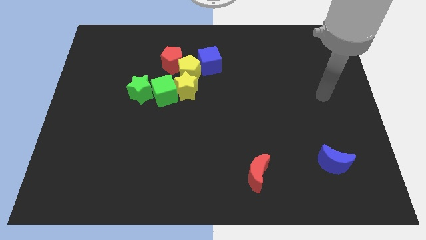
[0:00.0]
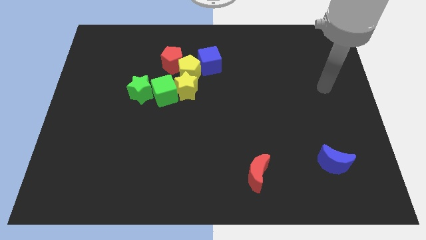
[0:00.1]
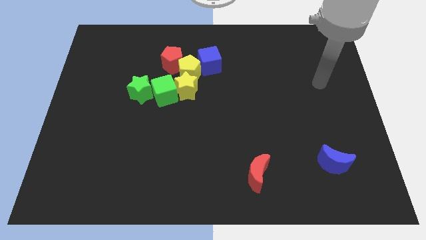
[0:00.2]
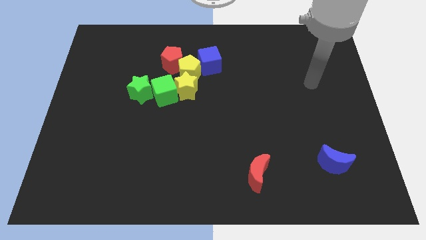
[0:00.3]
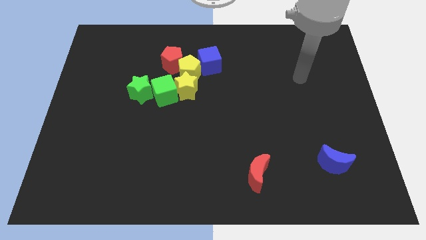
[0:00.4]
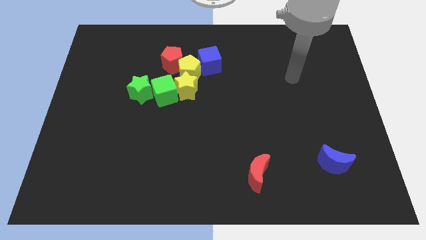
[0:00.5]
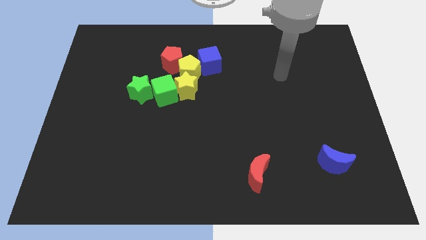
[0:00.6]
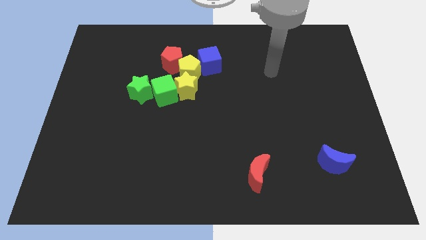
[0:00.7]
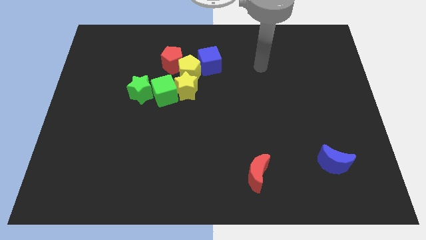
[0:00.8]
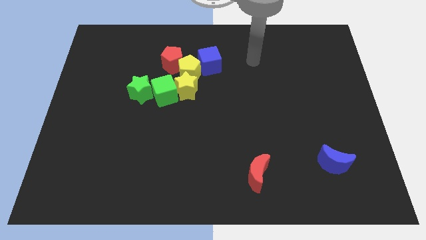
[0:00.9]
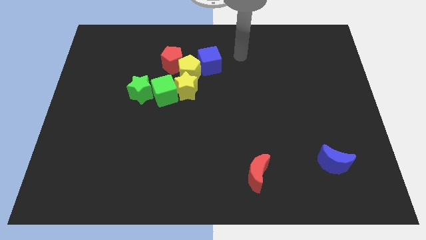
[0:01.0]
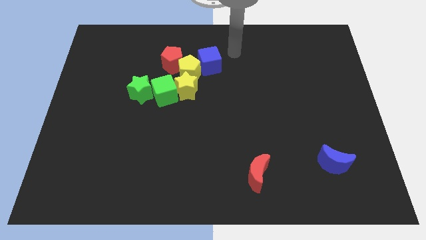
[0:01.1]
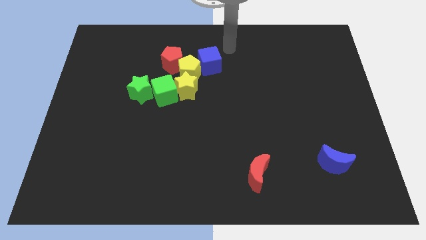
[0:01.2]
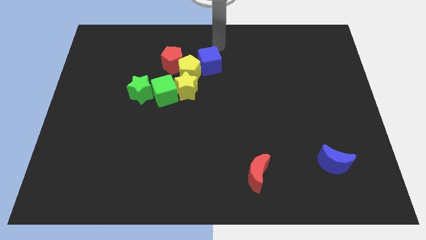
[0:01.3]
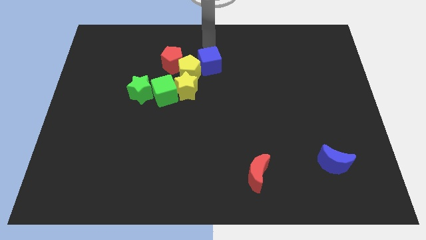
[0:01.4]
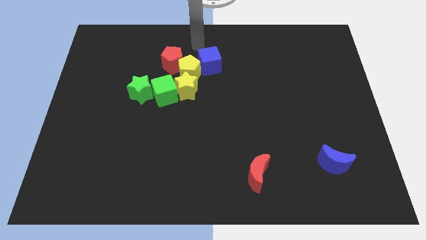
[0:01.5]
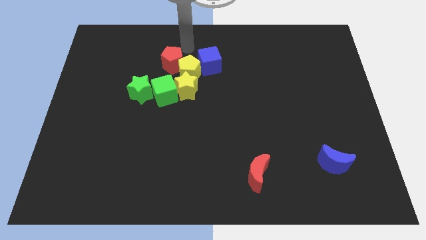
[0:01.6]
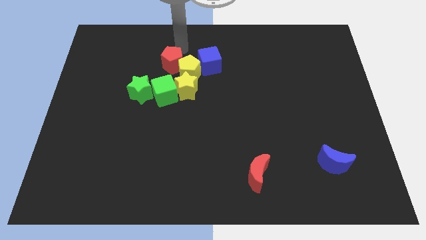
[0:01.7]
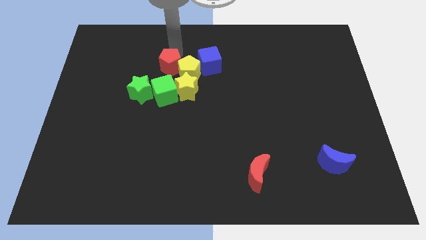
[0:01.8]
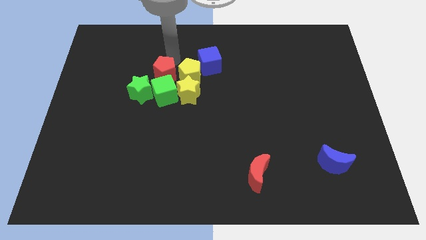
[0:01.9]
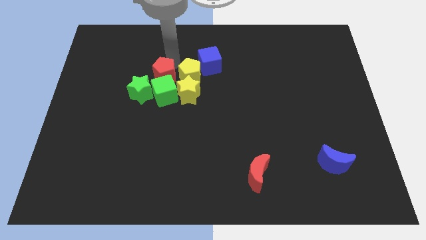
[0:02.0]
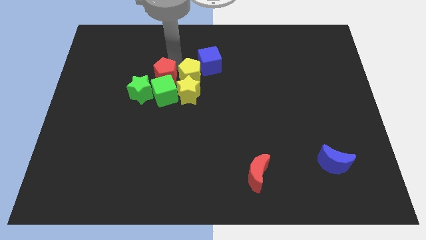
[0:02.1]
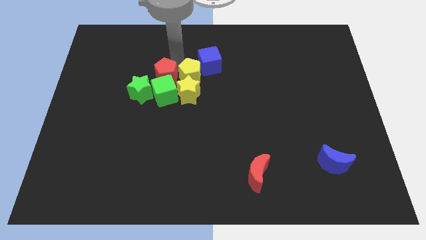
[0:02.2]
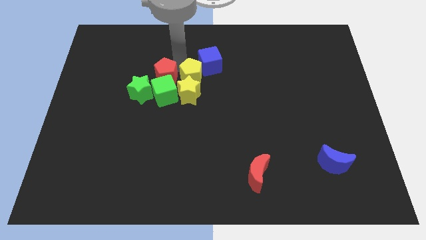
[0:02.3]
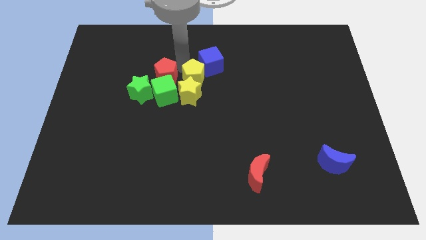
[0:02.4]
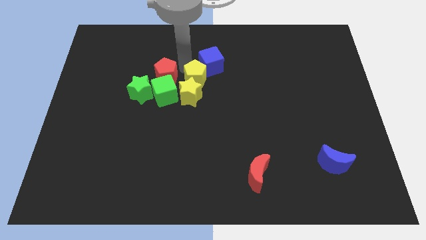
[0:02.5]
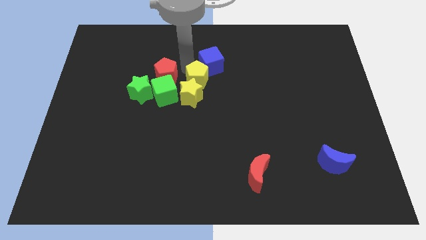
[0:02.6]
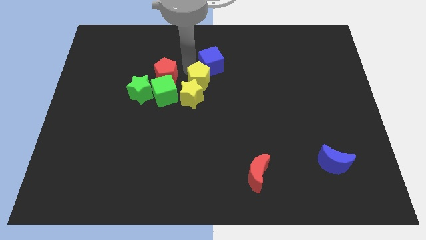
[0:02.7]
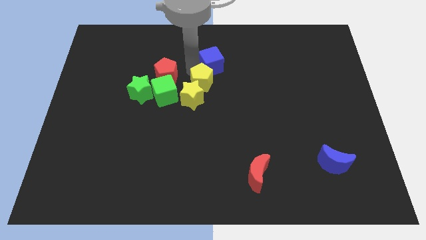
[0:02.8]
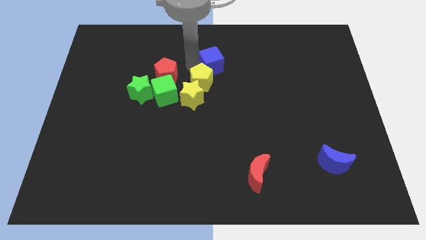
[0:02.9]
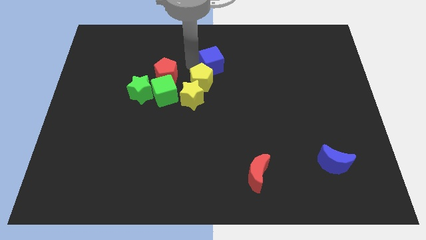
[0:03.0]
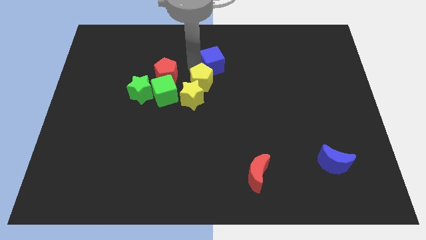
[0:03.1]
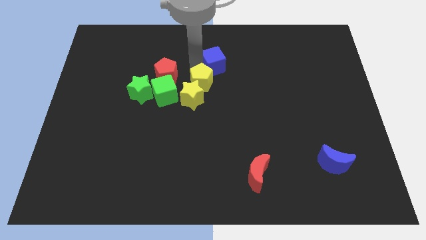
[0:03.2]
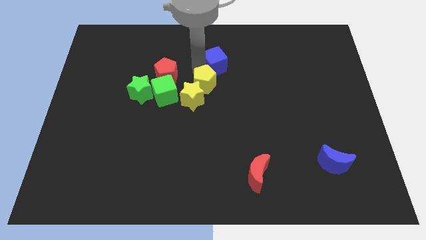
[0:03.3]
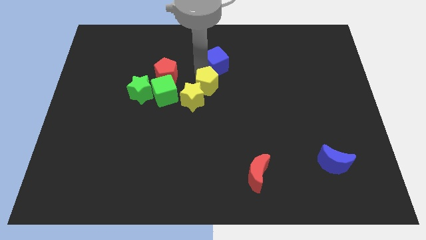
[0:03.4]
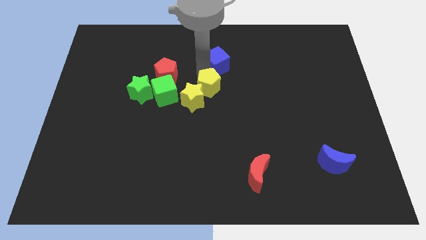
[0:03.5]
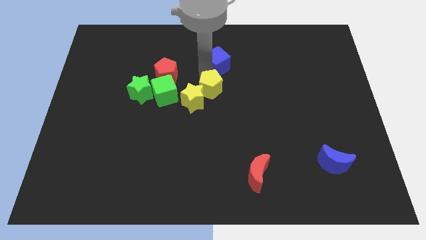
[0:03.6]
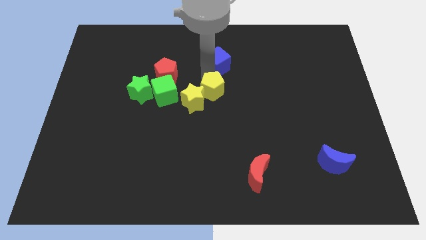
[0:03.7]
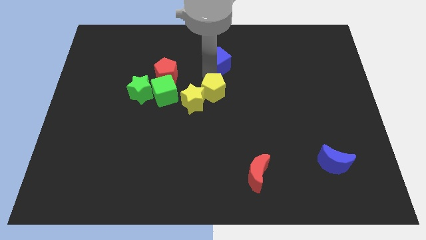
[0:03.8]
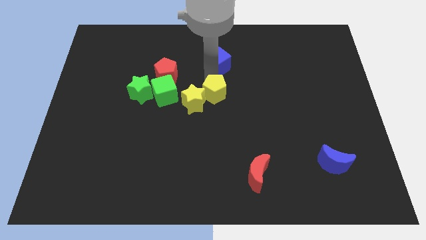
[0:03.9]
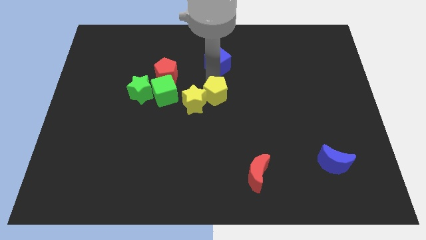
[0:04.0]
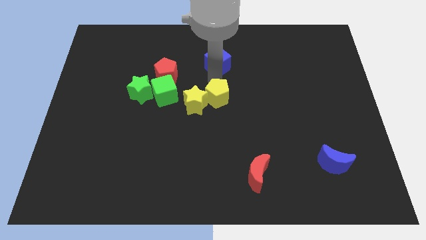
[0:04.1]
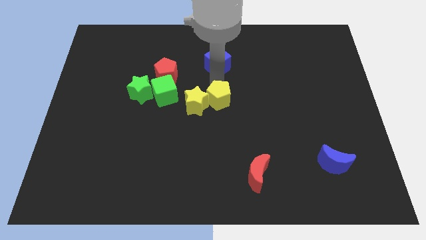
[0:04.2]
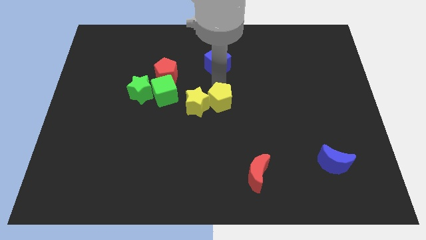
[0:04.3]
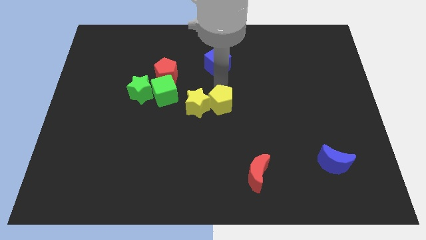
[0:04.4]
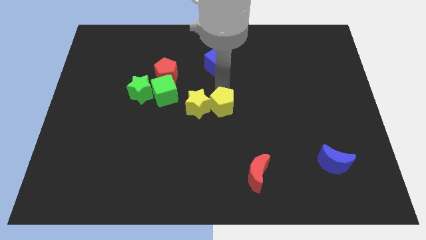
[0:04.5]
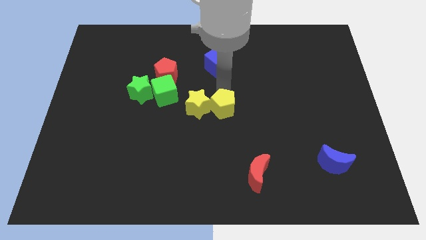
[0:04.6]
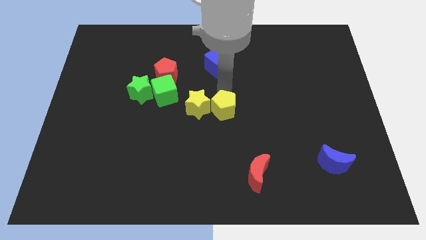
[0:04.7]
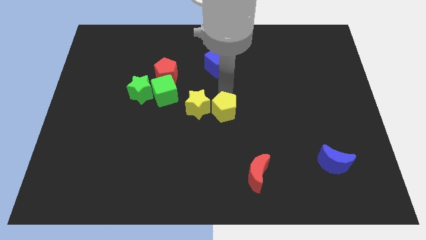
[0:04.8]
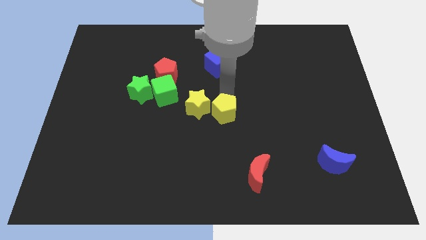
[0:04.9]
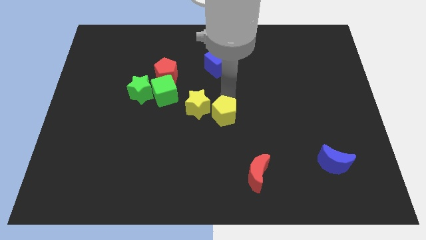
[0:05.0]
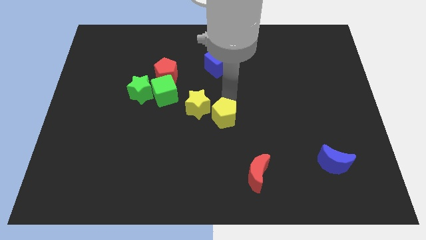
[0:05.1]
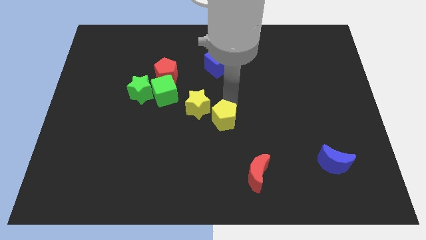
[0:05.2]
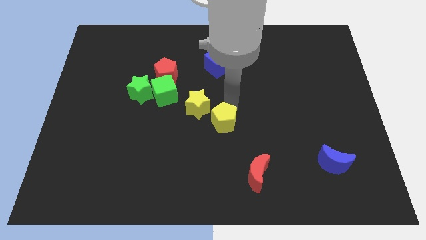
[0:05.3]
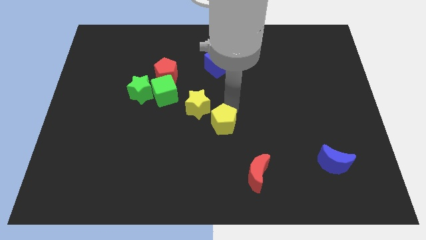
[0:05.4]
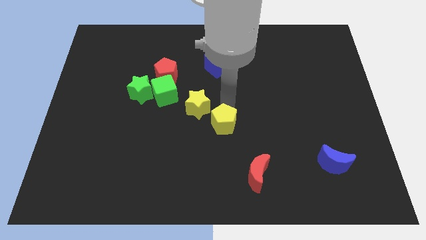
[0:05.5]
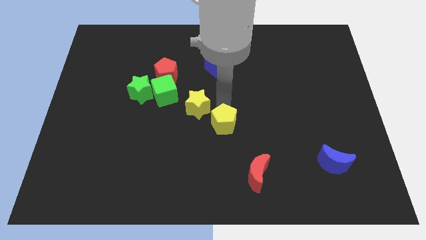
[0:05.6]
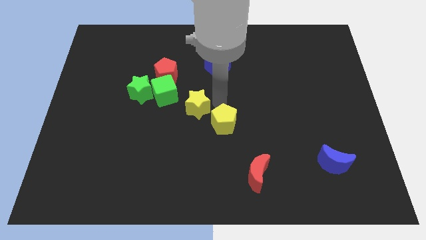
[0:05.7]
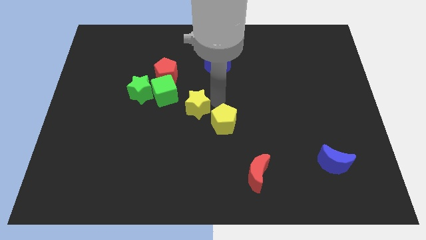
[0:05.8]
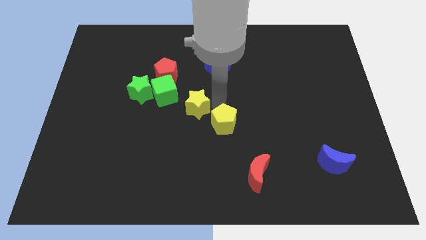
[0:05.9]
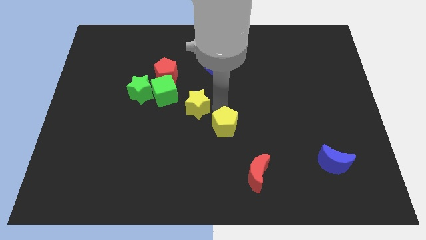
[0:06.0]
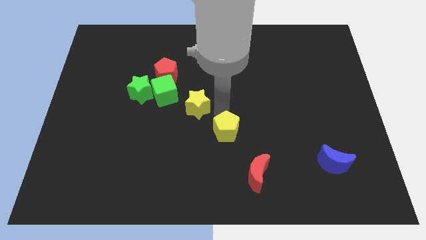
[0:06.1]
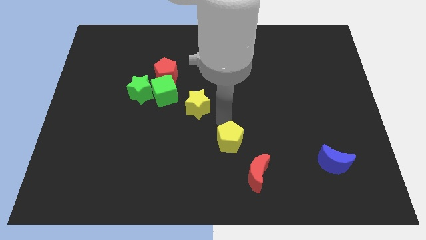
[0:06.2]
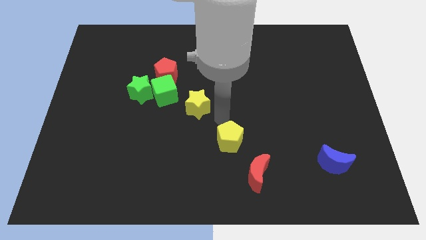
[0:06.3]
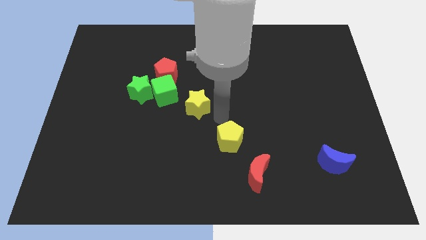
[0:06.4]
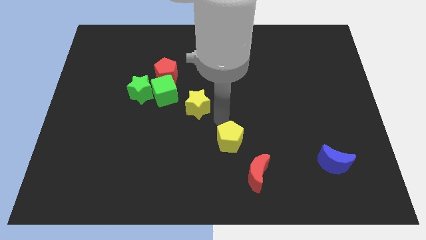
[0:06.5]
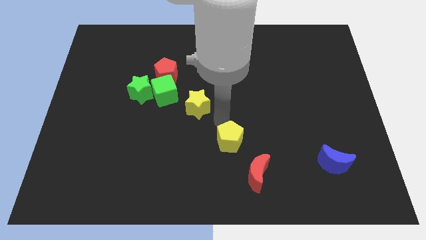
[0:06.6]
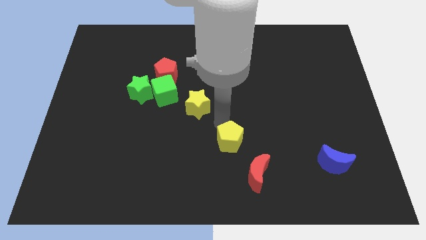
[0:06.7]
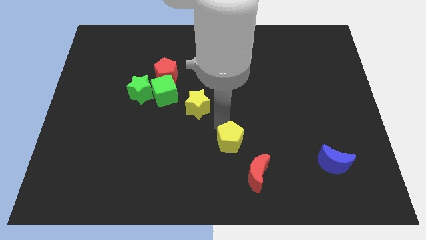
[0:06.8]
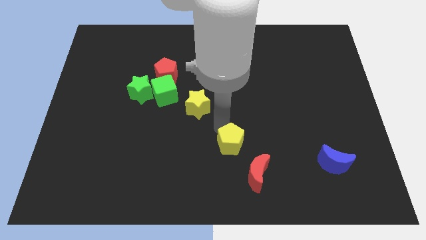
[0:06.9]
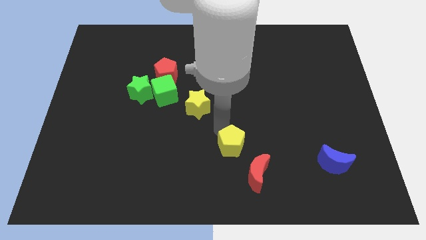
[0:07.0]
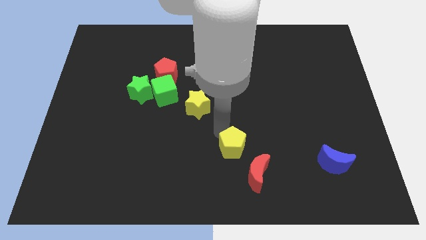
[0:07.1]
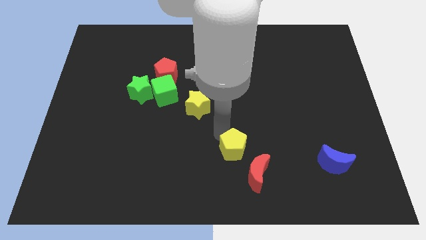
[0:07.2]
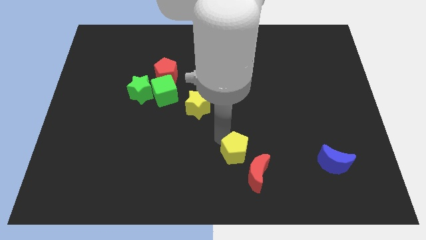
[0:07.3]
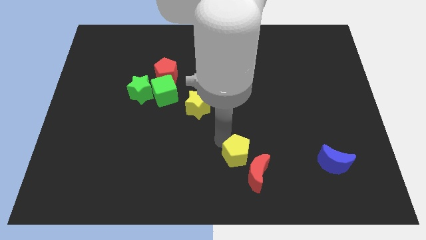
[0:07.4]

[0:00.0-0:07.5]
slide the yellow pentagon to the red moon
